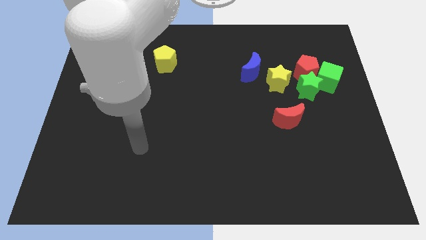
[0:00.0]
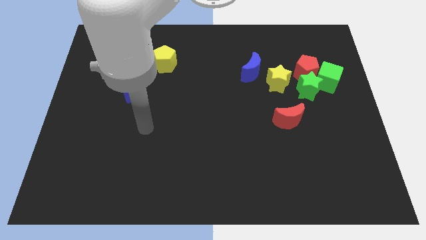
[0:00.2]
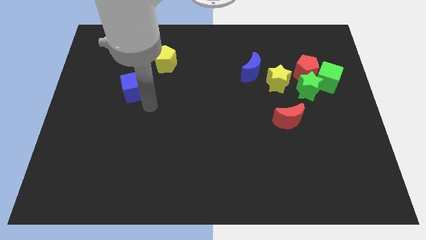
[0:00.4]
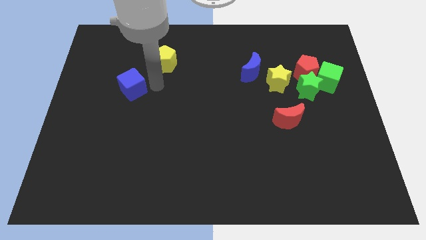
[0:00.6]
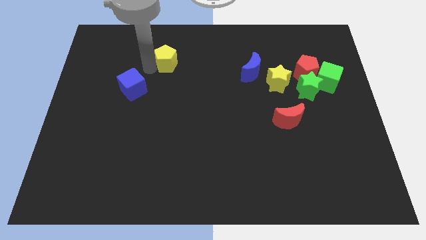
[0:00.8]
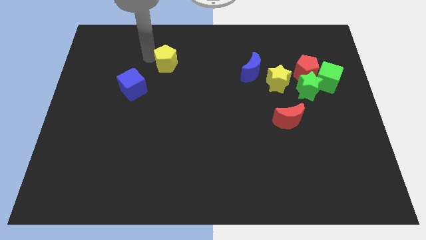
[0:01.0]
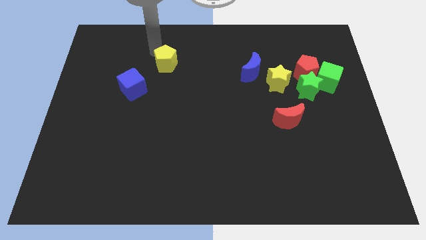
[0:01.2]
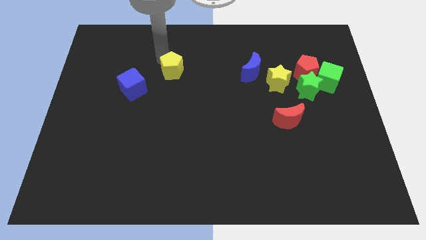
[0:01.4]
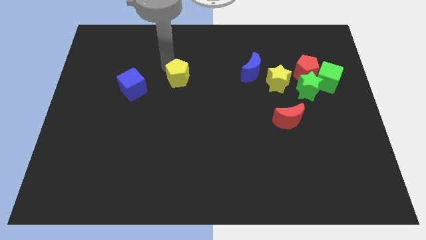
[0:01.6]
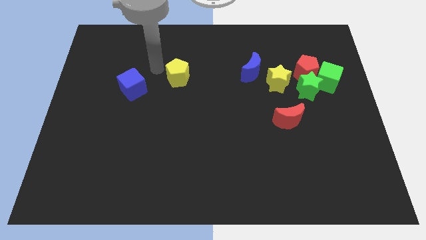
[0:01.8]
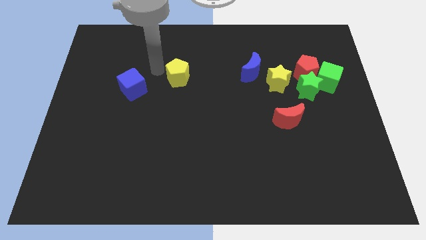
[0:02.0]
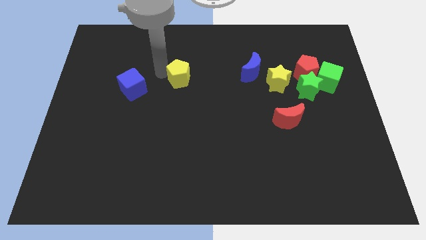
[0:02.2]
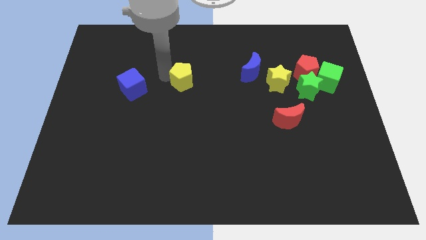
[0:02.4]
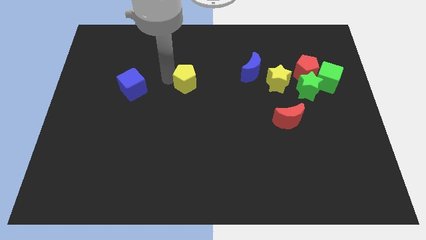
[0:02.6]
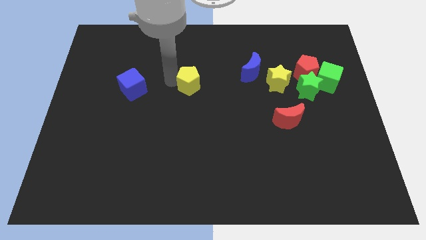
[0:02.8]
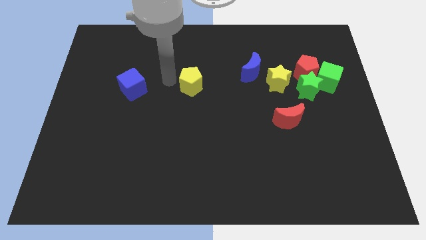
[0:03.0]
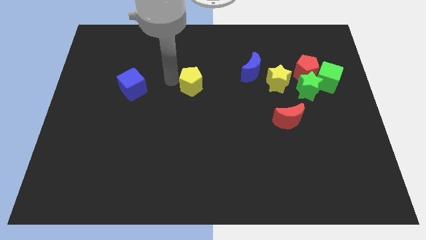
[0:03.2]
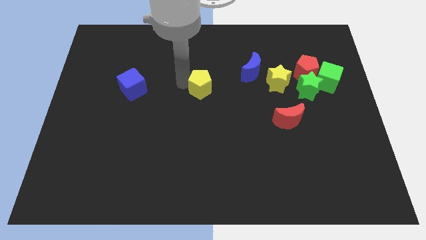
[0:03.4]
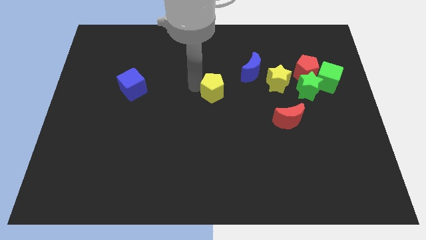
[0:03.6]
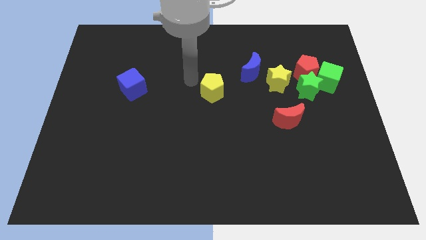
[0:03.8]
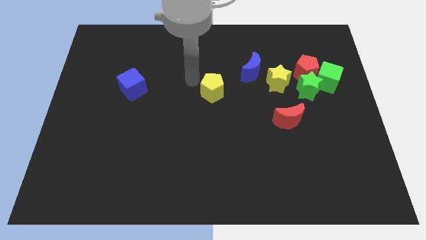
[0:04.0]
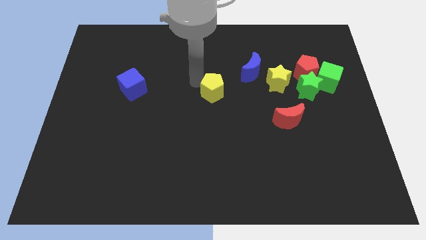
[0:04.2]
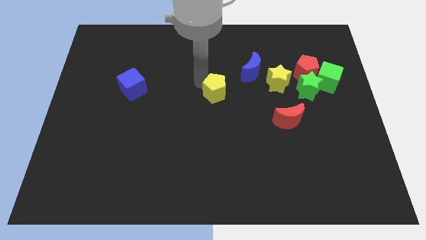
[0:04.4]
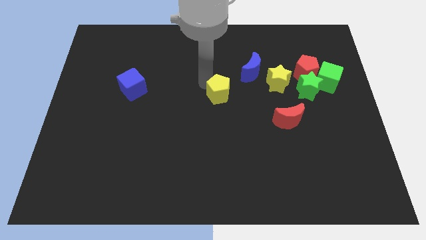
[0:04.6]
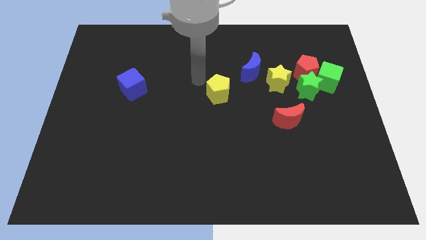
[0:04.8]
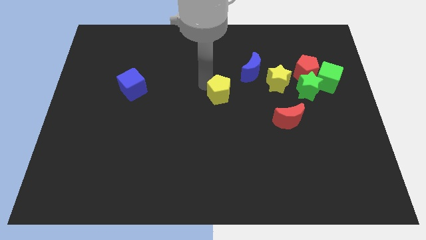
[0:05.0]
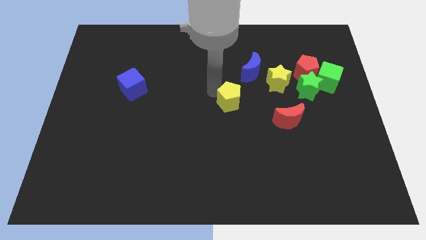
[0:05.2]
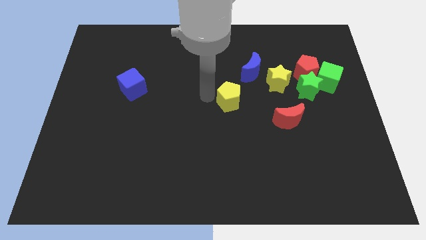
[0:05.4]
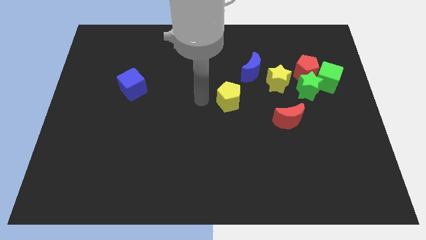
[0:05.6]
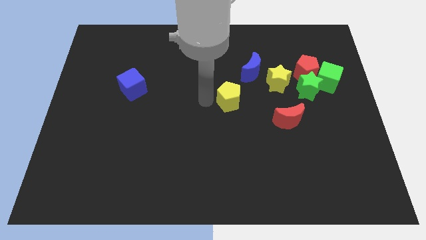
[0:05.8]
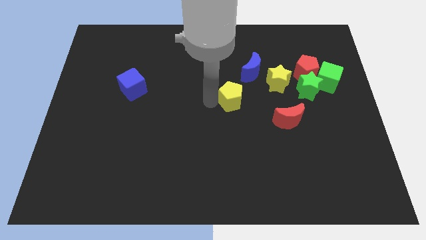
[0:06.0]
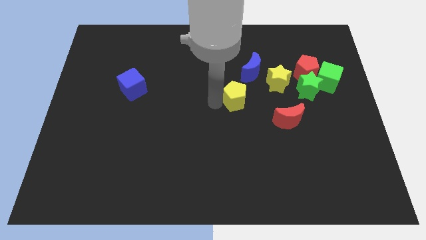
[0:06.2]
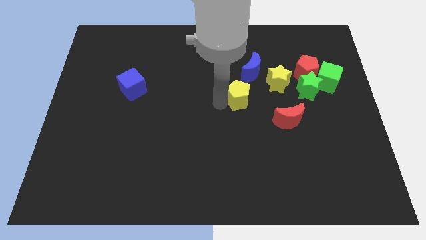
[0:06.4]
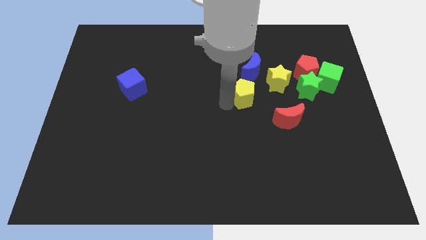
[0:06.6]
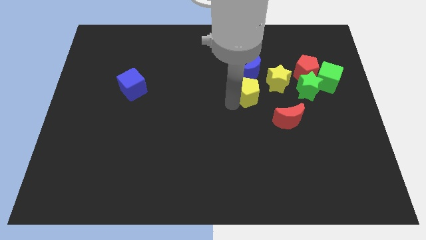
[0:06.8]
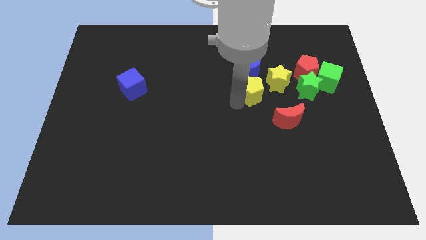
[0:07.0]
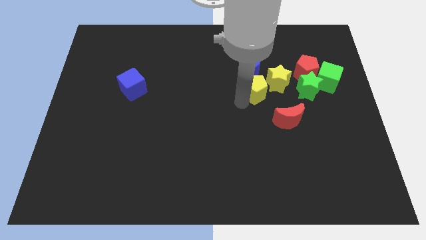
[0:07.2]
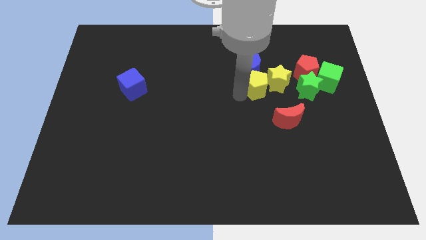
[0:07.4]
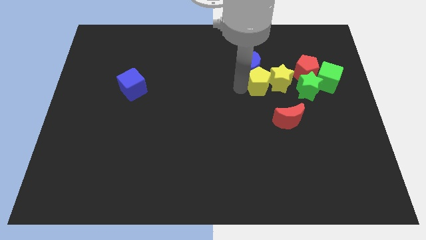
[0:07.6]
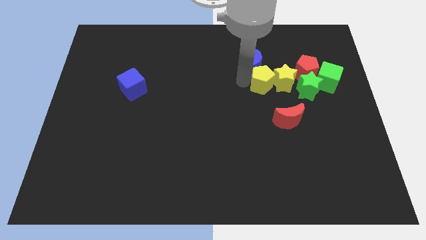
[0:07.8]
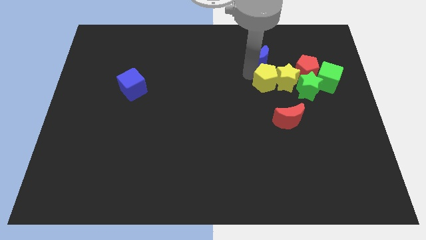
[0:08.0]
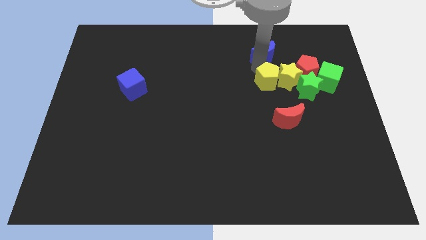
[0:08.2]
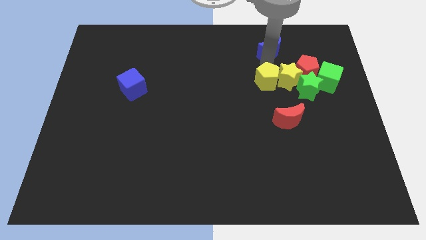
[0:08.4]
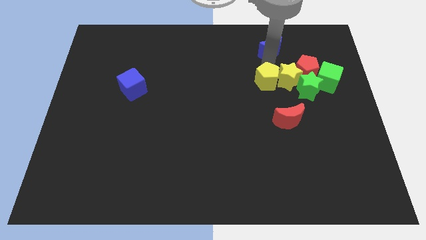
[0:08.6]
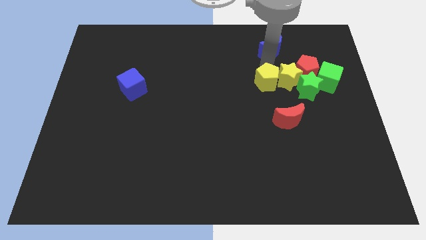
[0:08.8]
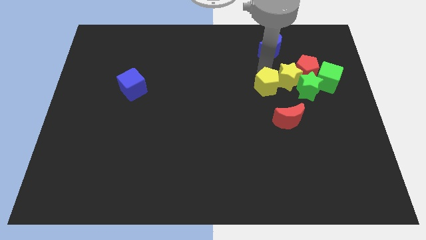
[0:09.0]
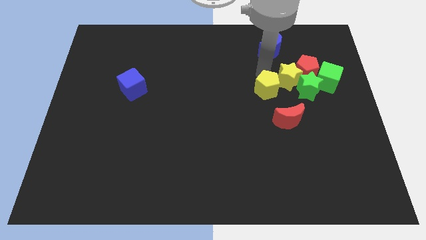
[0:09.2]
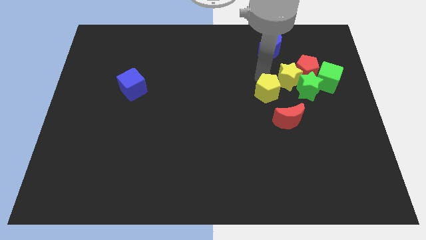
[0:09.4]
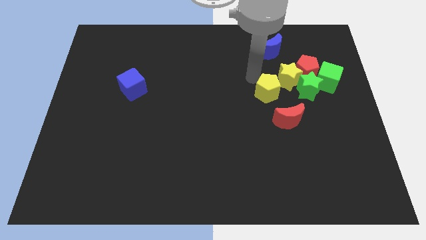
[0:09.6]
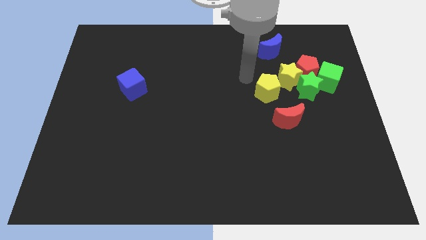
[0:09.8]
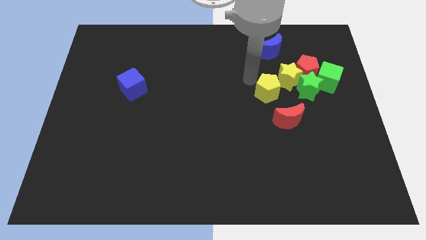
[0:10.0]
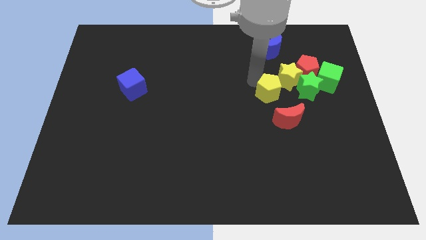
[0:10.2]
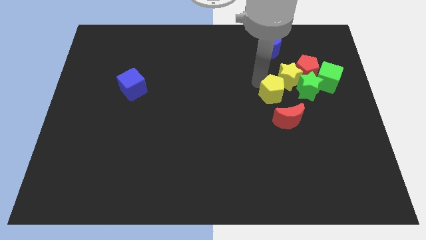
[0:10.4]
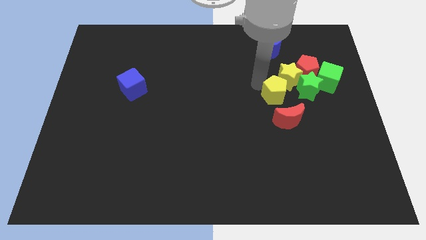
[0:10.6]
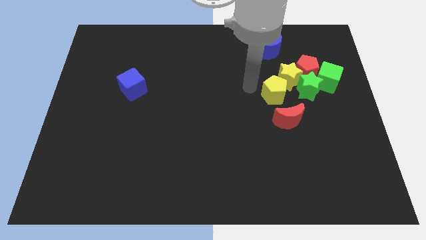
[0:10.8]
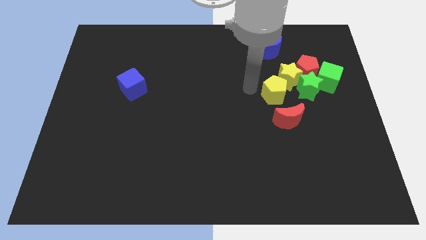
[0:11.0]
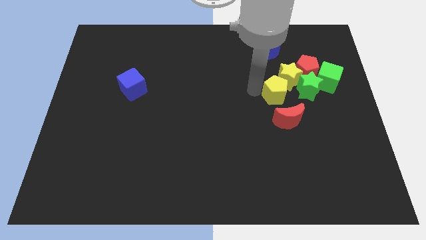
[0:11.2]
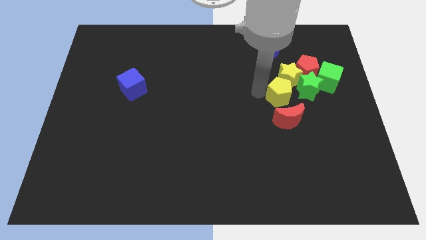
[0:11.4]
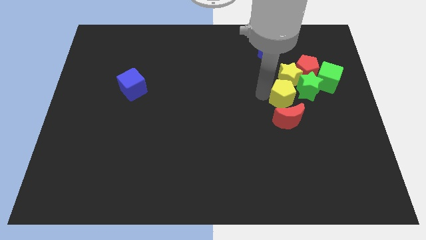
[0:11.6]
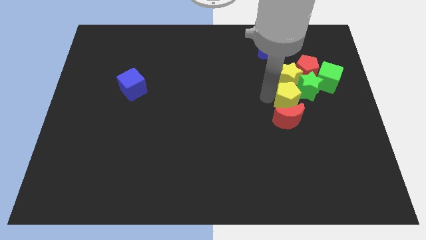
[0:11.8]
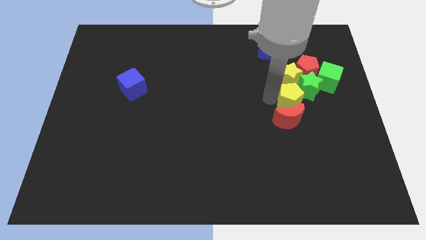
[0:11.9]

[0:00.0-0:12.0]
put the yellow pentagon next to the green star

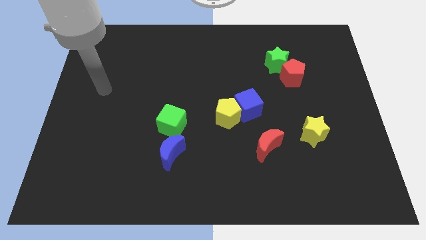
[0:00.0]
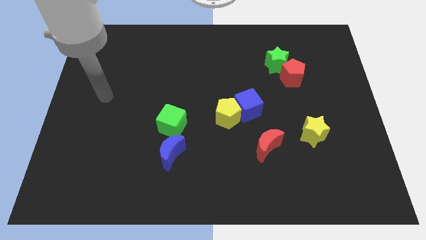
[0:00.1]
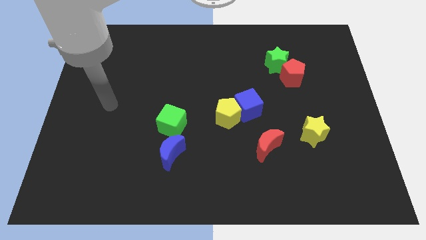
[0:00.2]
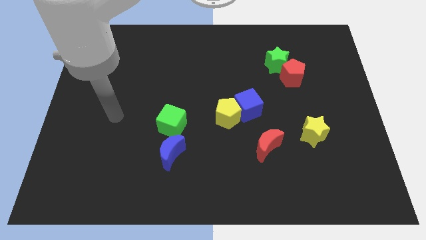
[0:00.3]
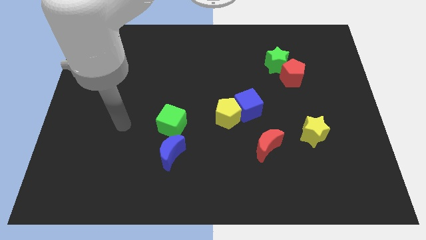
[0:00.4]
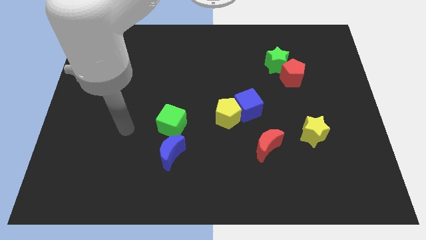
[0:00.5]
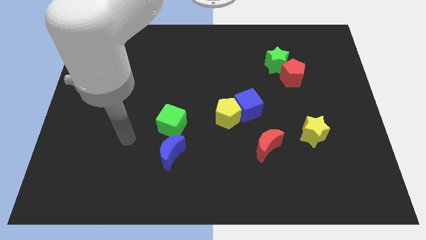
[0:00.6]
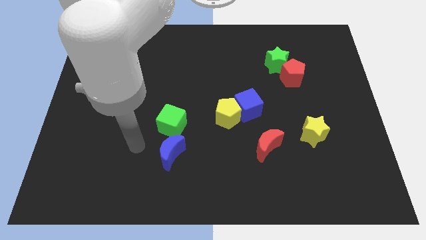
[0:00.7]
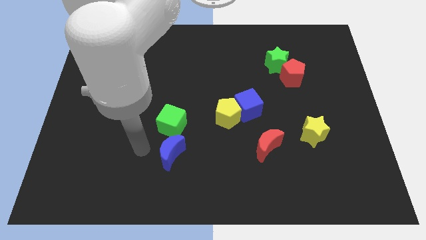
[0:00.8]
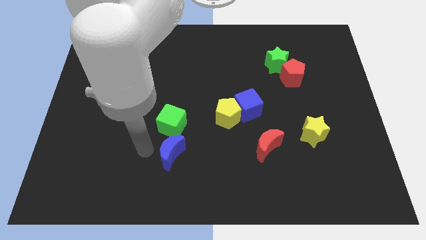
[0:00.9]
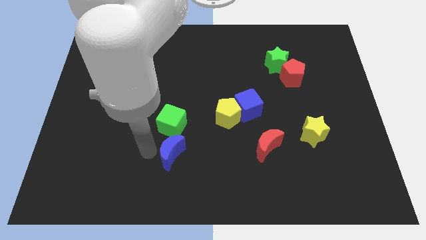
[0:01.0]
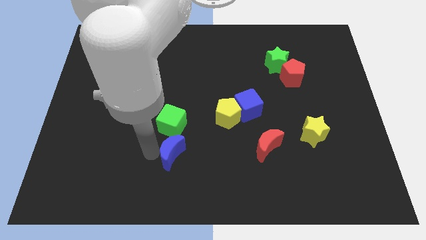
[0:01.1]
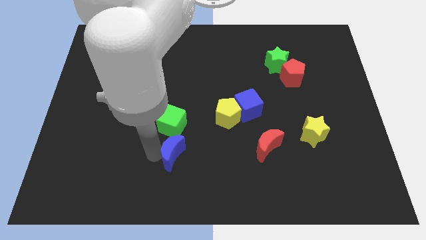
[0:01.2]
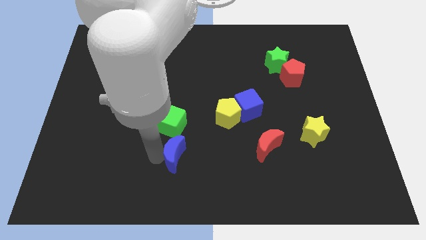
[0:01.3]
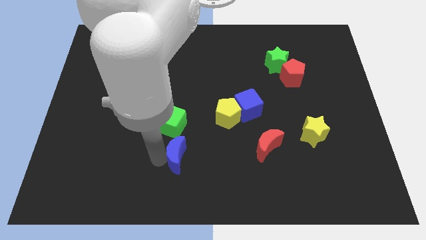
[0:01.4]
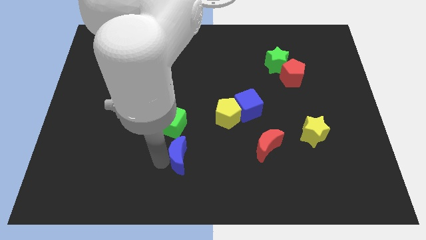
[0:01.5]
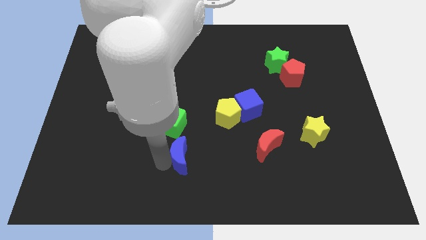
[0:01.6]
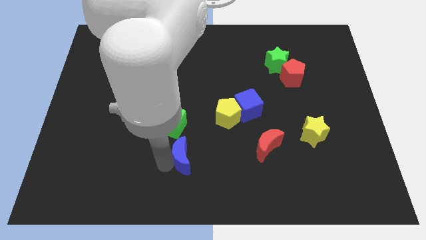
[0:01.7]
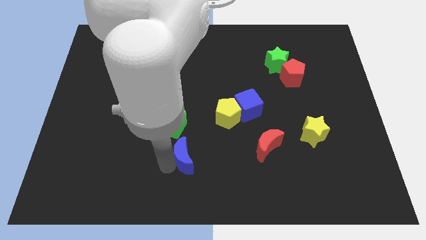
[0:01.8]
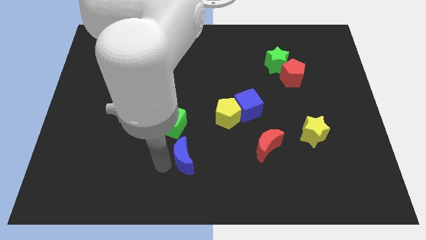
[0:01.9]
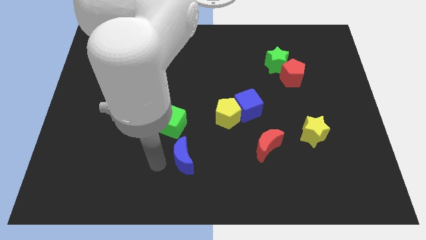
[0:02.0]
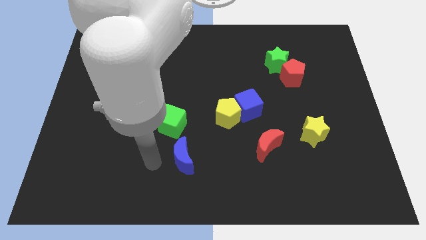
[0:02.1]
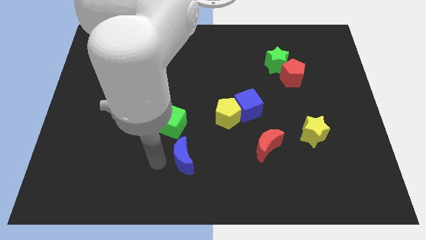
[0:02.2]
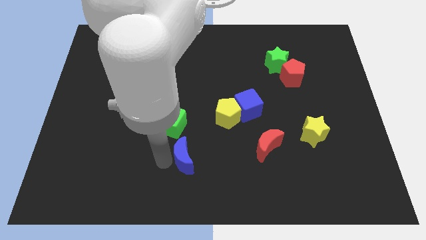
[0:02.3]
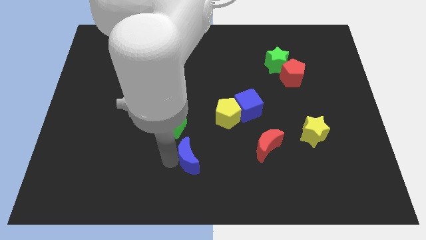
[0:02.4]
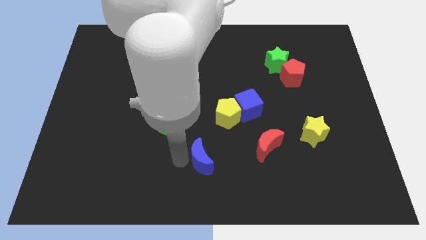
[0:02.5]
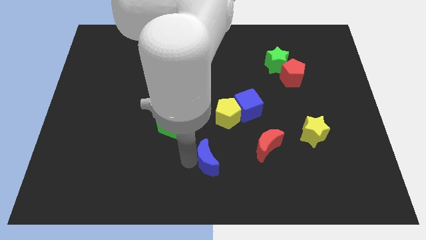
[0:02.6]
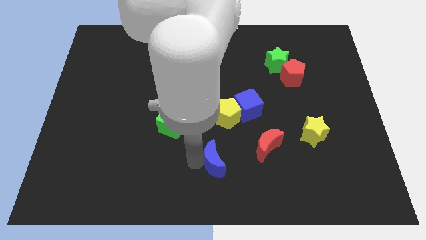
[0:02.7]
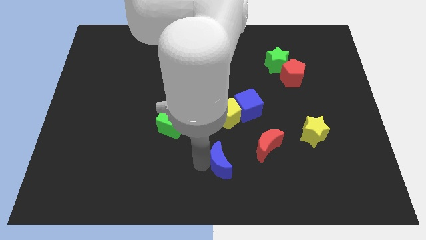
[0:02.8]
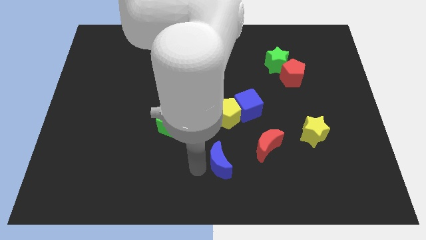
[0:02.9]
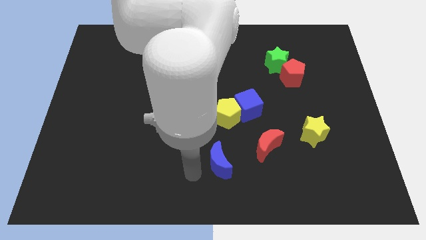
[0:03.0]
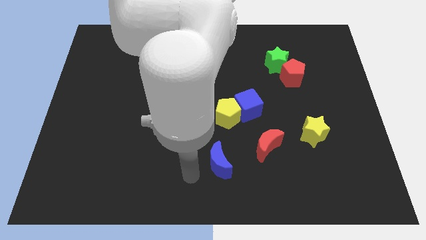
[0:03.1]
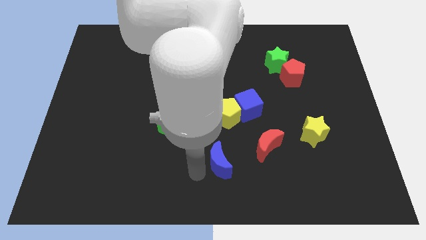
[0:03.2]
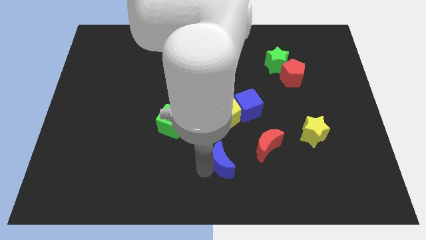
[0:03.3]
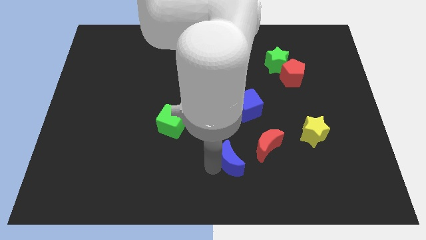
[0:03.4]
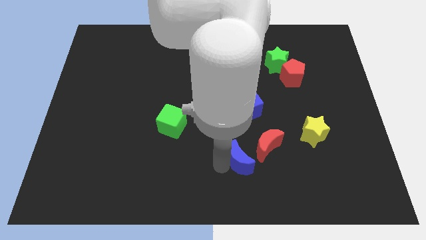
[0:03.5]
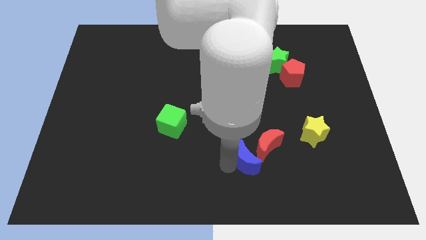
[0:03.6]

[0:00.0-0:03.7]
slide the blue moon close to the red moon
